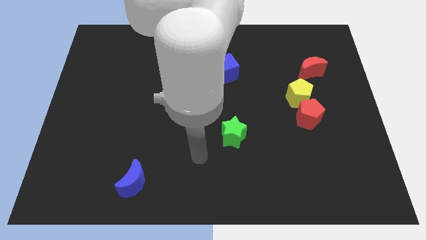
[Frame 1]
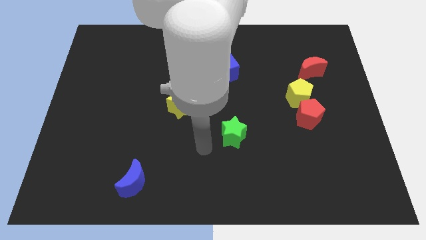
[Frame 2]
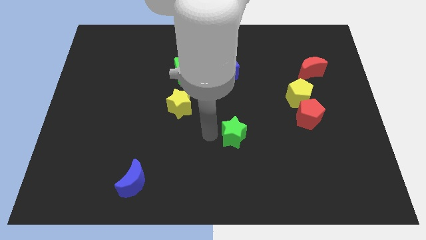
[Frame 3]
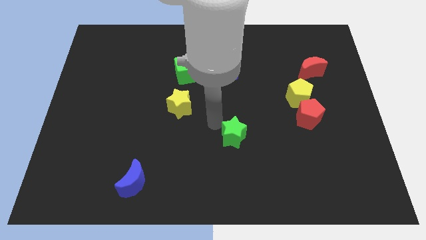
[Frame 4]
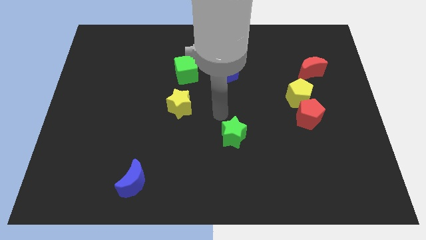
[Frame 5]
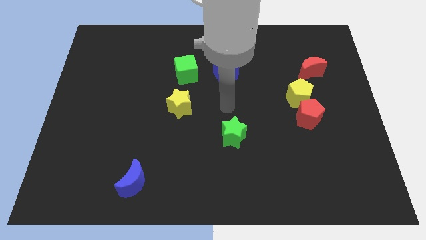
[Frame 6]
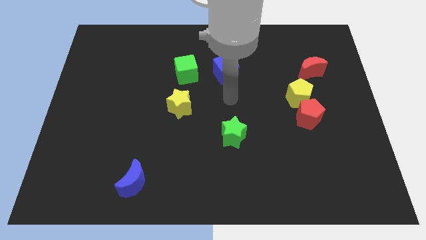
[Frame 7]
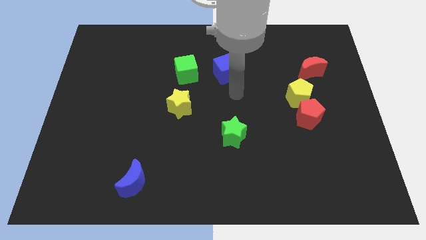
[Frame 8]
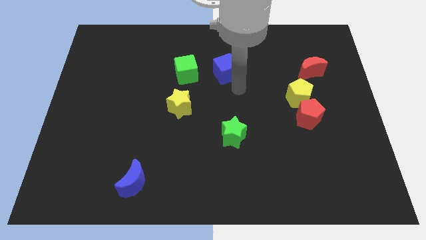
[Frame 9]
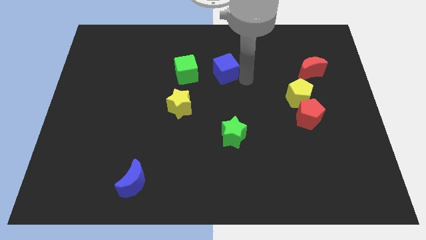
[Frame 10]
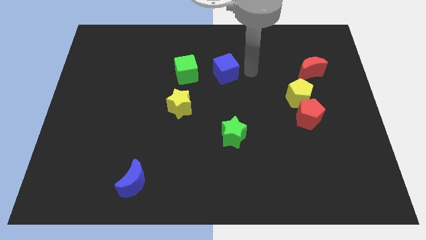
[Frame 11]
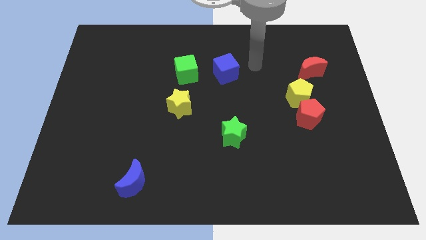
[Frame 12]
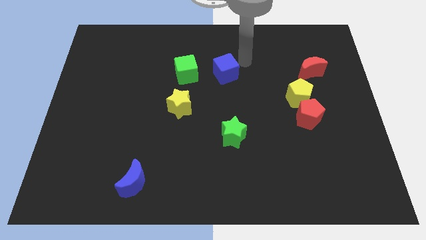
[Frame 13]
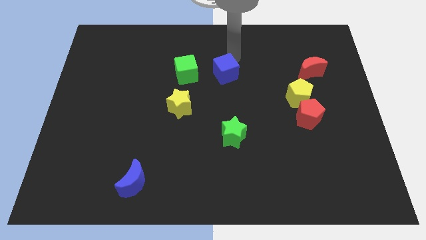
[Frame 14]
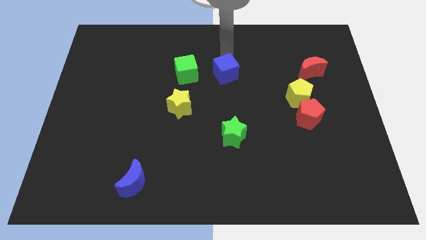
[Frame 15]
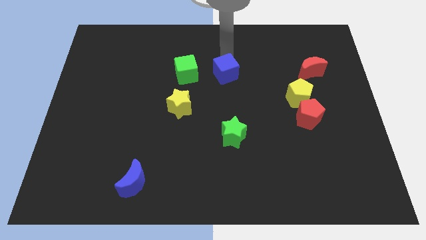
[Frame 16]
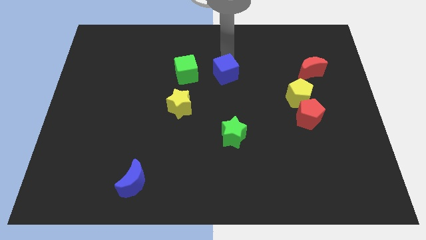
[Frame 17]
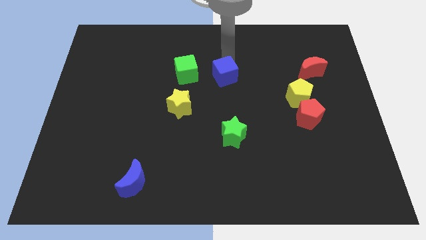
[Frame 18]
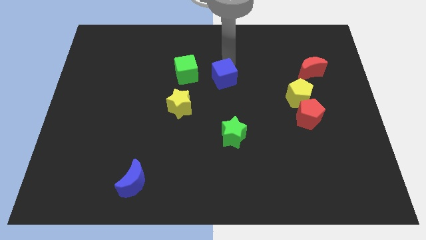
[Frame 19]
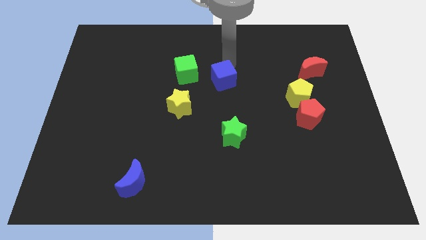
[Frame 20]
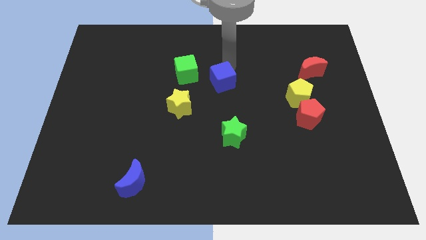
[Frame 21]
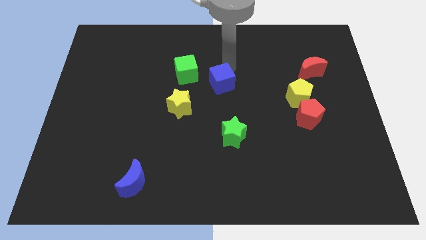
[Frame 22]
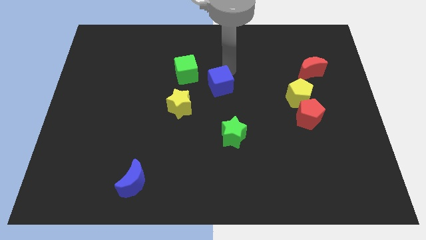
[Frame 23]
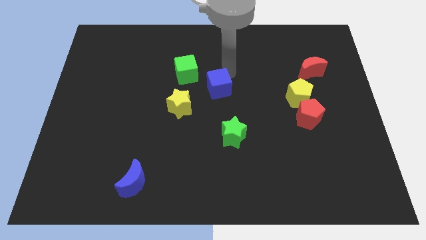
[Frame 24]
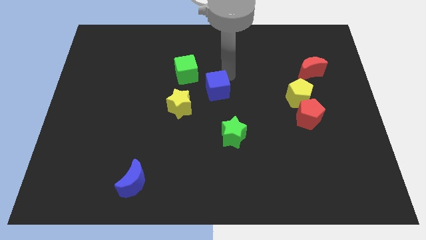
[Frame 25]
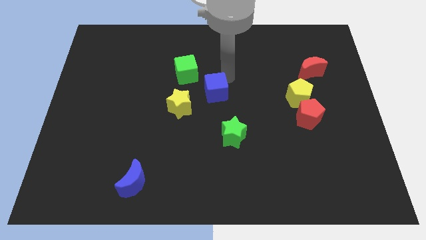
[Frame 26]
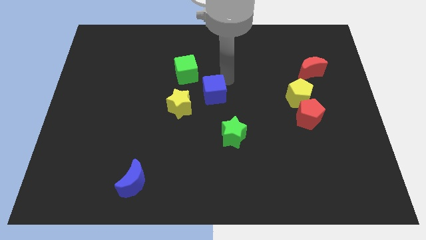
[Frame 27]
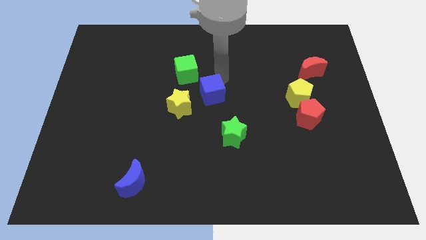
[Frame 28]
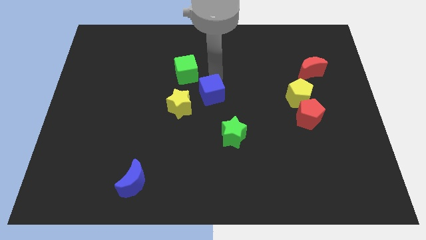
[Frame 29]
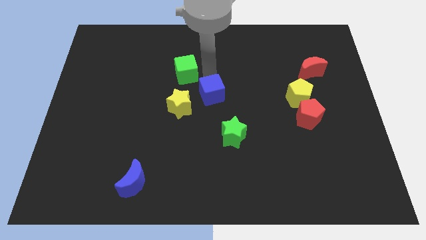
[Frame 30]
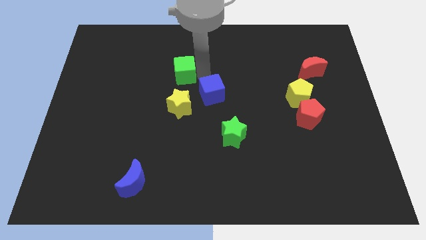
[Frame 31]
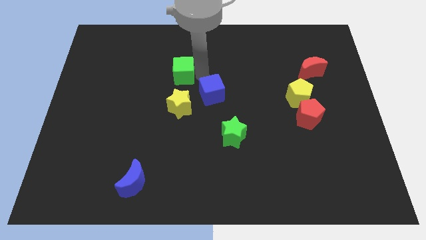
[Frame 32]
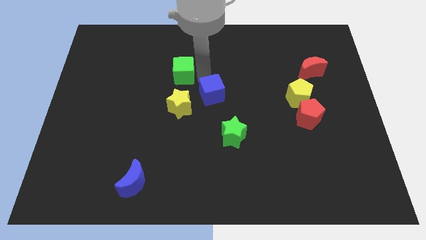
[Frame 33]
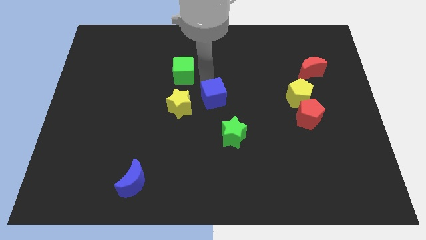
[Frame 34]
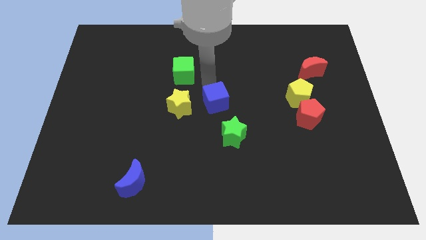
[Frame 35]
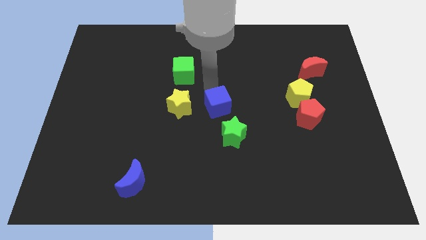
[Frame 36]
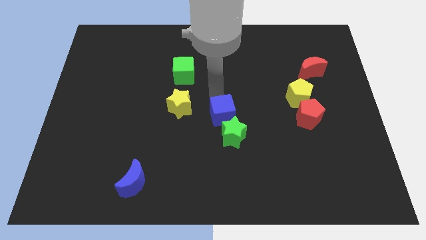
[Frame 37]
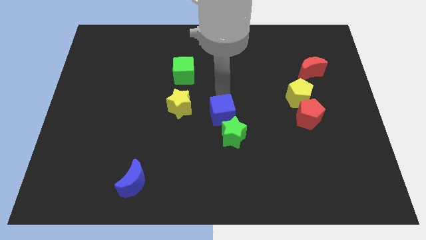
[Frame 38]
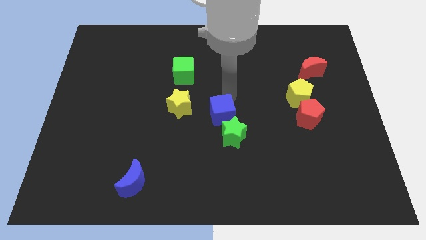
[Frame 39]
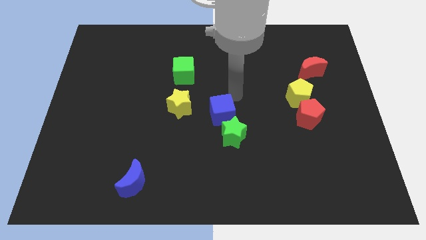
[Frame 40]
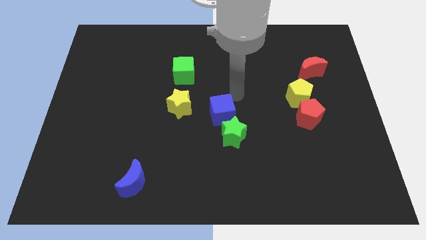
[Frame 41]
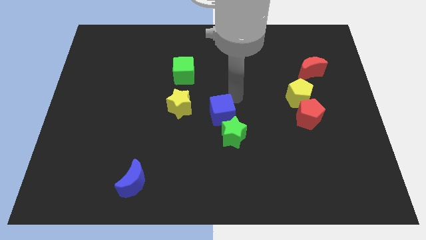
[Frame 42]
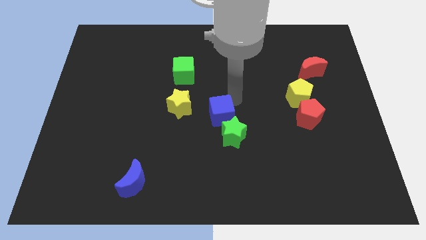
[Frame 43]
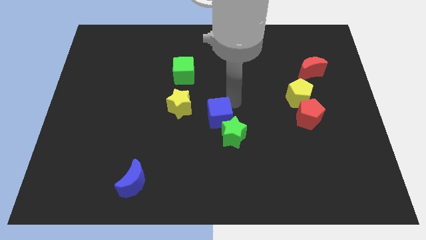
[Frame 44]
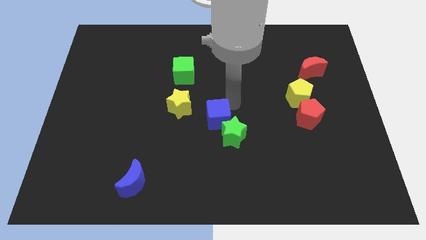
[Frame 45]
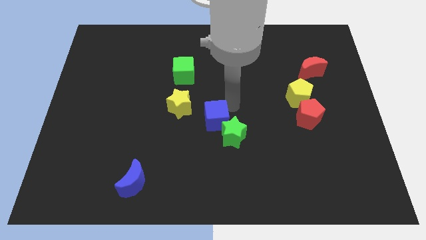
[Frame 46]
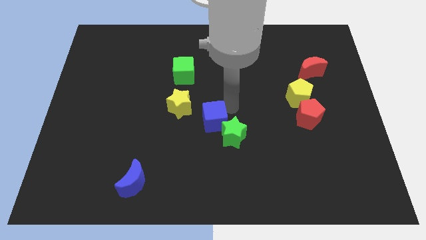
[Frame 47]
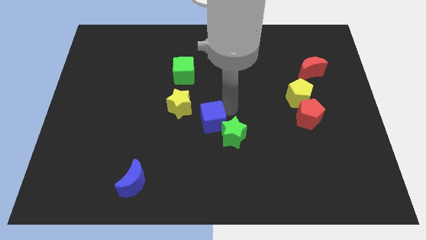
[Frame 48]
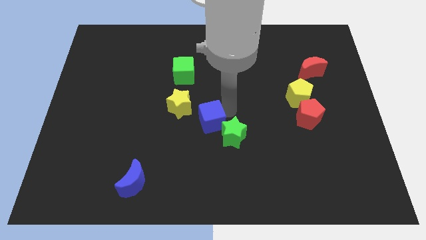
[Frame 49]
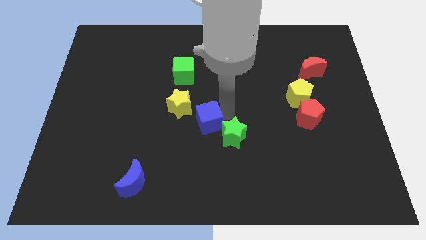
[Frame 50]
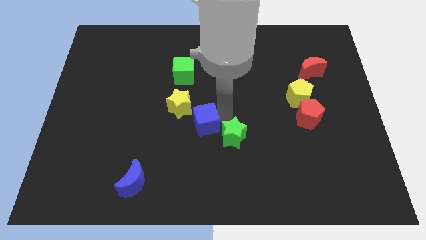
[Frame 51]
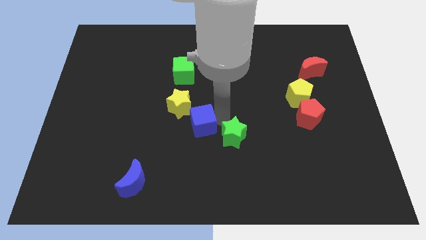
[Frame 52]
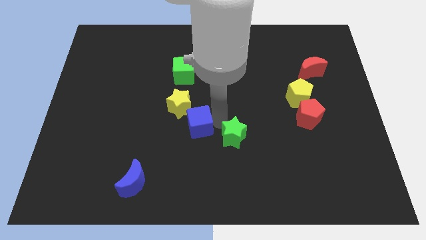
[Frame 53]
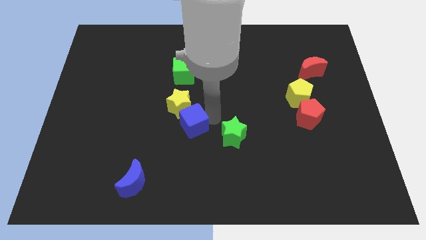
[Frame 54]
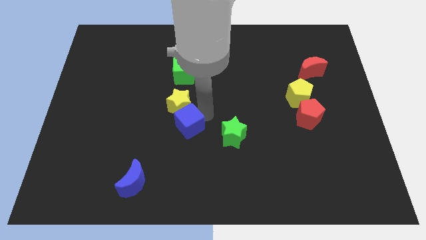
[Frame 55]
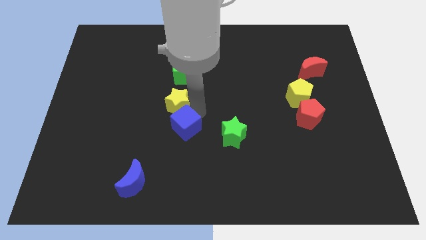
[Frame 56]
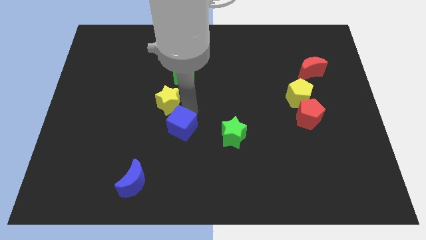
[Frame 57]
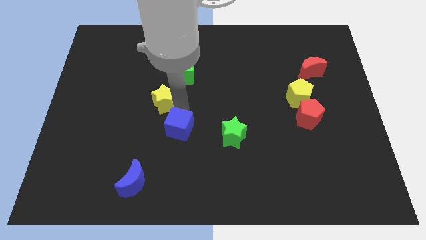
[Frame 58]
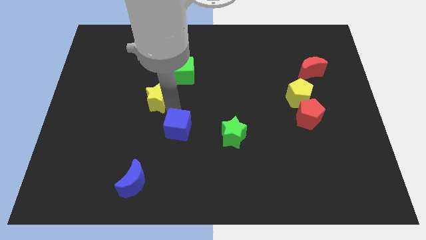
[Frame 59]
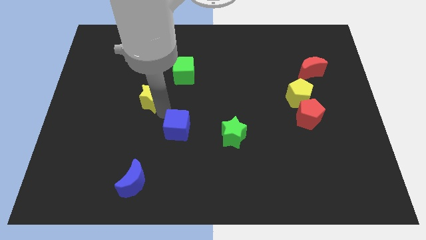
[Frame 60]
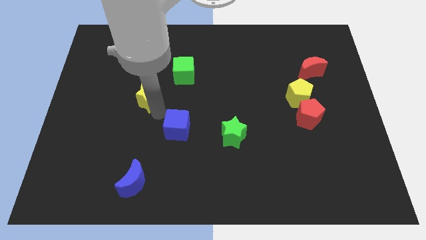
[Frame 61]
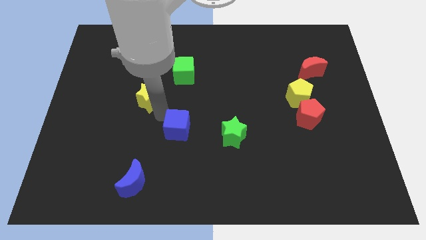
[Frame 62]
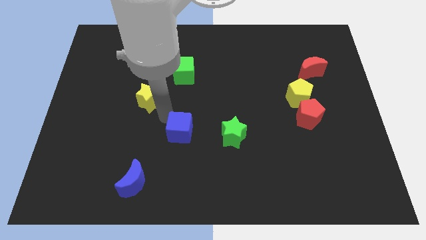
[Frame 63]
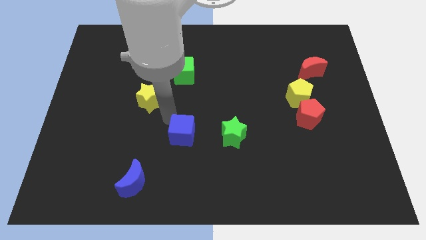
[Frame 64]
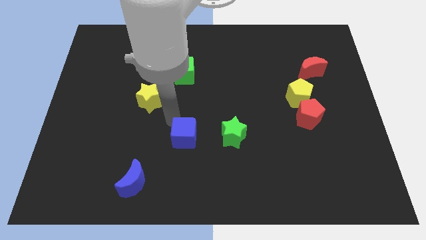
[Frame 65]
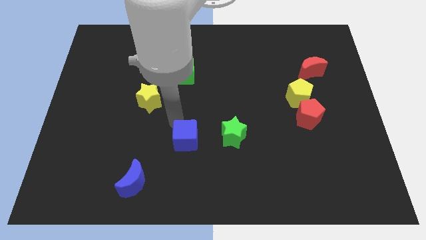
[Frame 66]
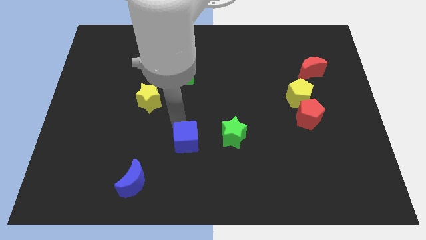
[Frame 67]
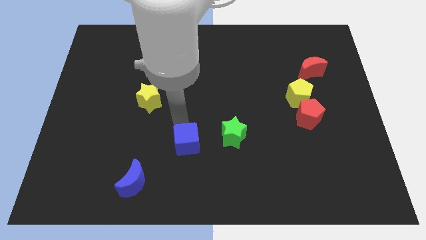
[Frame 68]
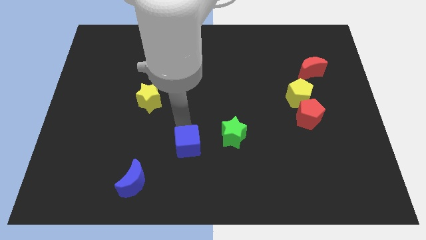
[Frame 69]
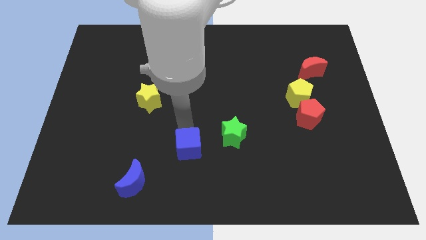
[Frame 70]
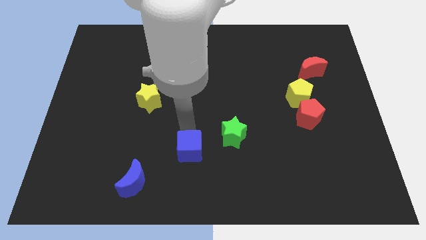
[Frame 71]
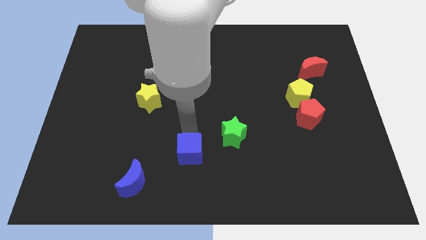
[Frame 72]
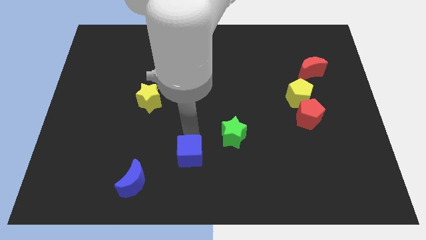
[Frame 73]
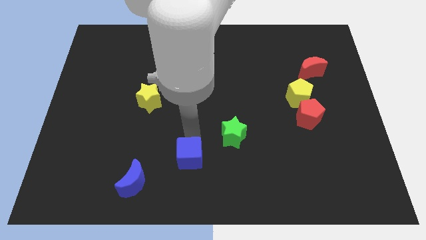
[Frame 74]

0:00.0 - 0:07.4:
put the blue cube to the bottom side
